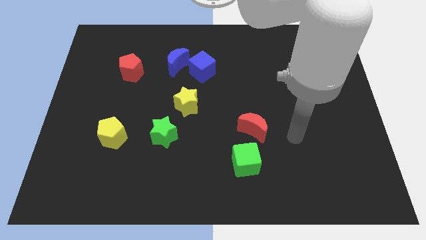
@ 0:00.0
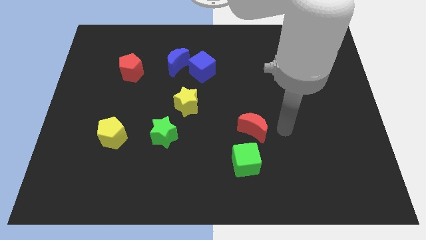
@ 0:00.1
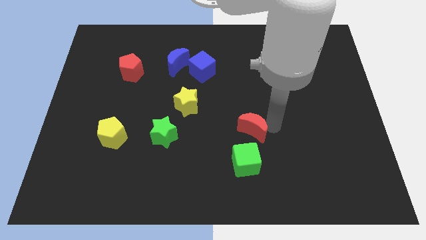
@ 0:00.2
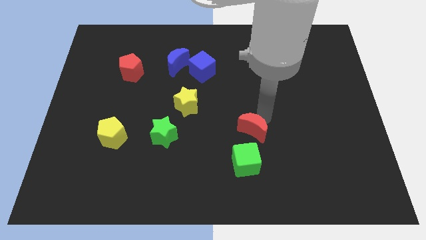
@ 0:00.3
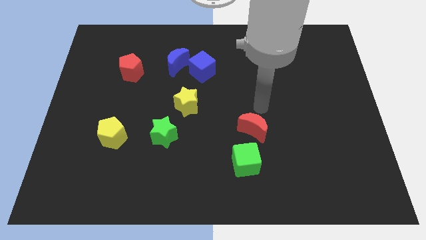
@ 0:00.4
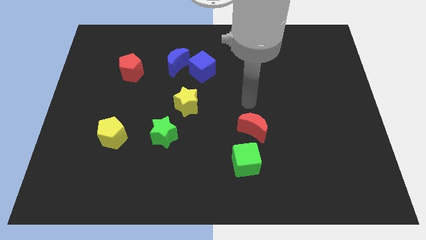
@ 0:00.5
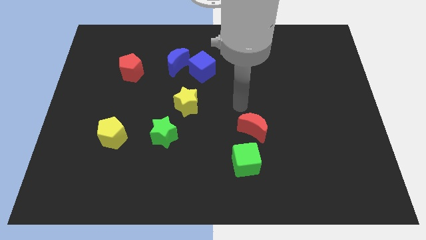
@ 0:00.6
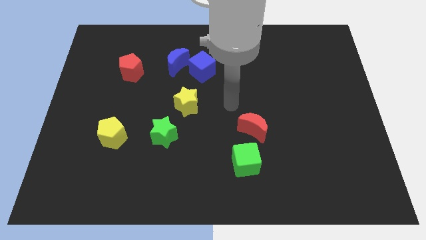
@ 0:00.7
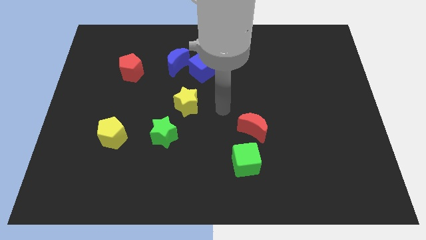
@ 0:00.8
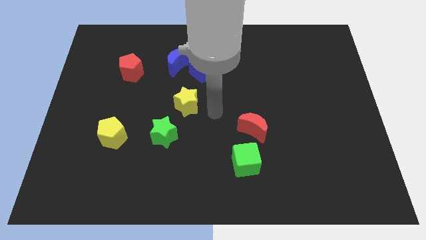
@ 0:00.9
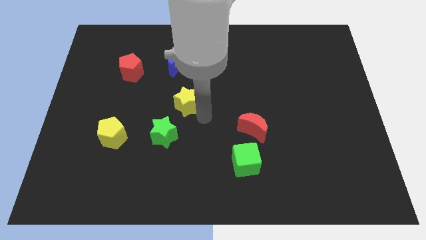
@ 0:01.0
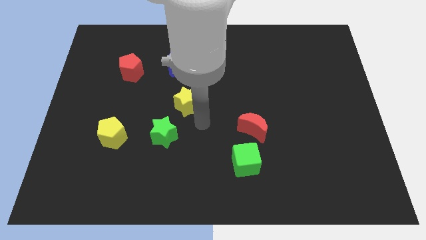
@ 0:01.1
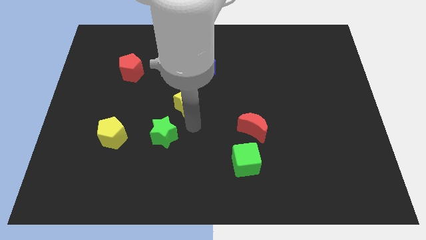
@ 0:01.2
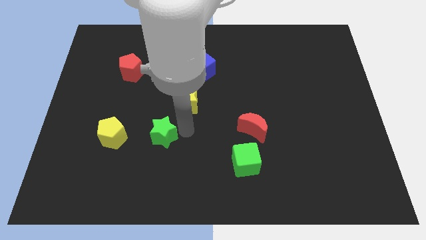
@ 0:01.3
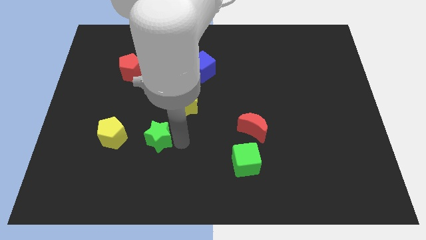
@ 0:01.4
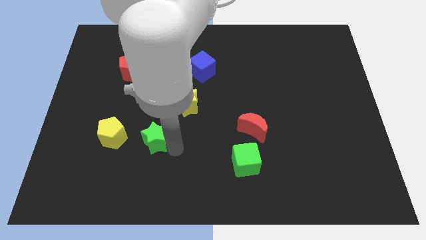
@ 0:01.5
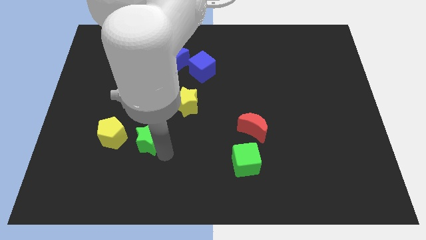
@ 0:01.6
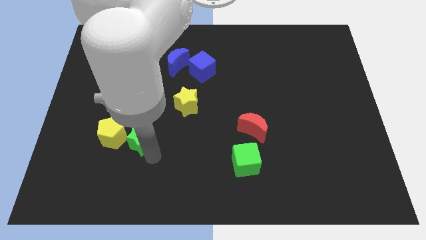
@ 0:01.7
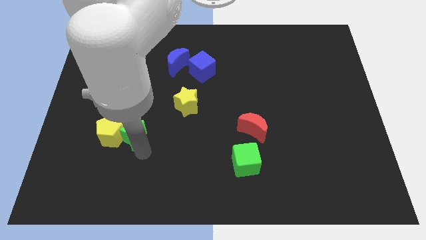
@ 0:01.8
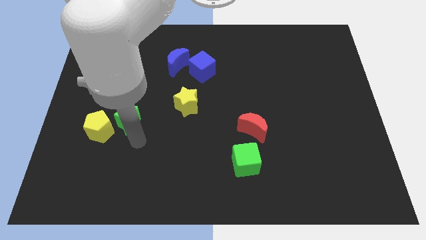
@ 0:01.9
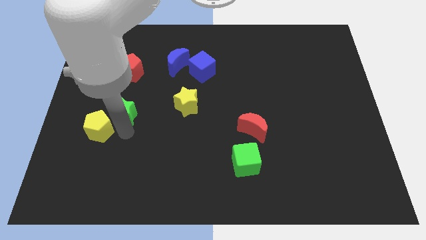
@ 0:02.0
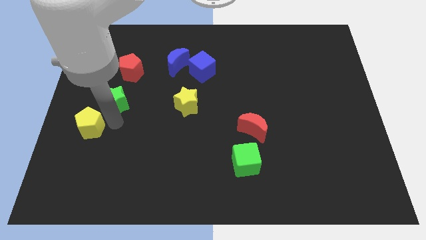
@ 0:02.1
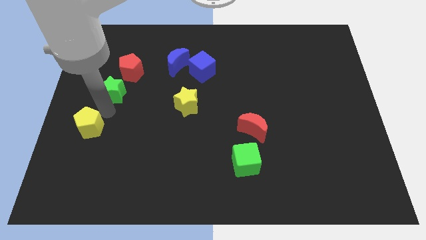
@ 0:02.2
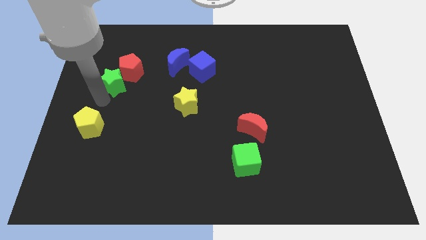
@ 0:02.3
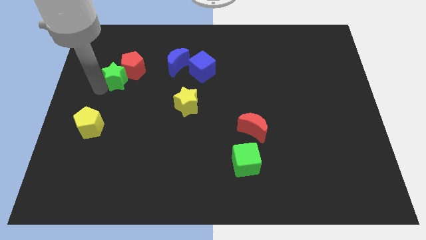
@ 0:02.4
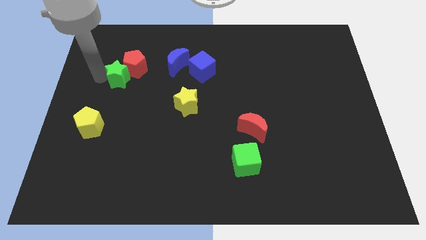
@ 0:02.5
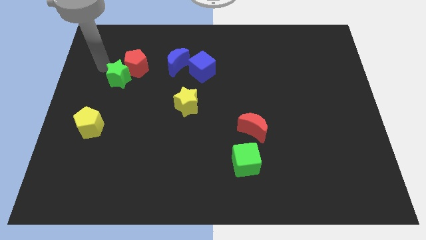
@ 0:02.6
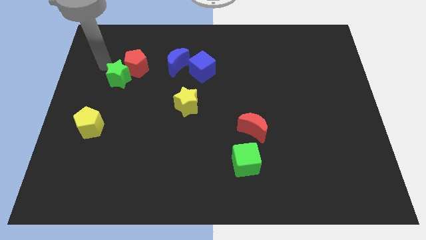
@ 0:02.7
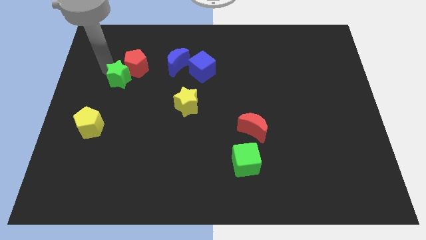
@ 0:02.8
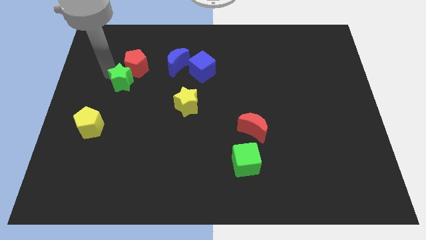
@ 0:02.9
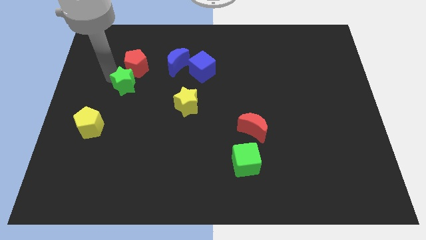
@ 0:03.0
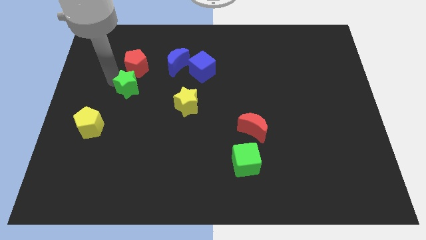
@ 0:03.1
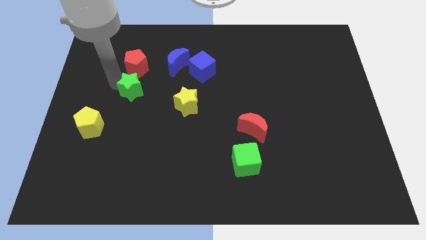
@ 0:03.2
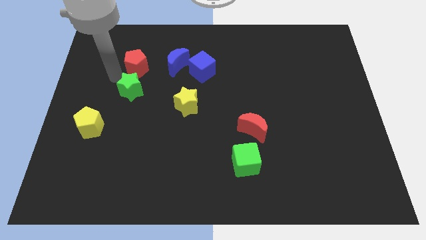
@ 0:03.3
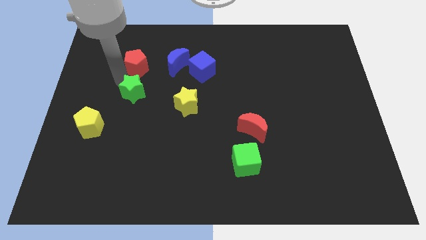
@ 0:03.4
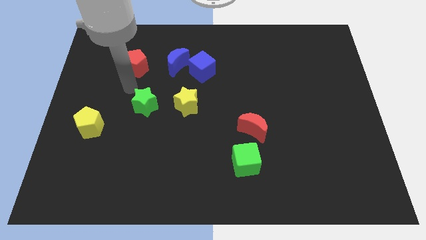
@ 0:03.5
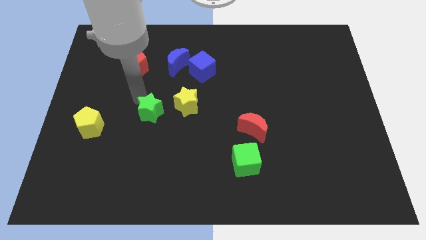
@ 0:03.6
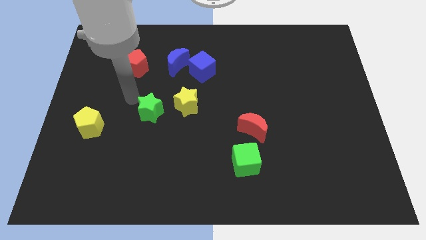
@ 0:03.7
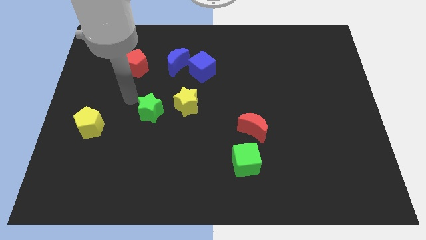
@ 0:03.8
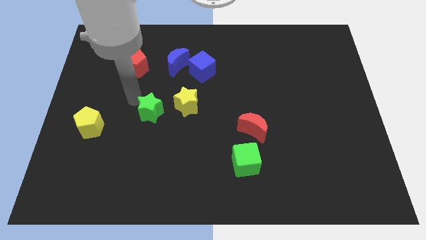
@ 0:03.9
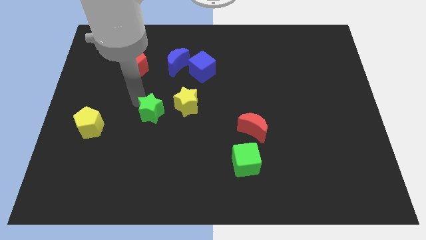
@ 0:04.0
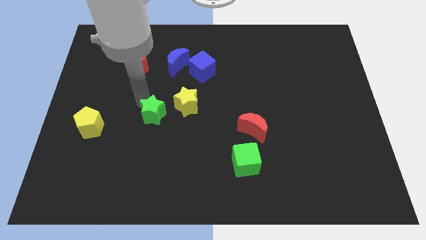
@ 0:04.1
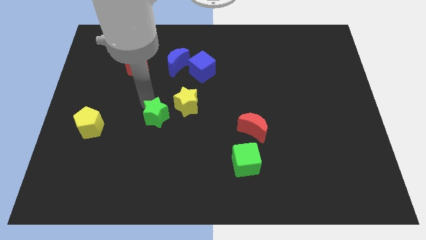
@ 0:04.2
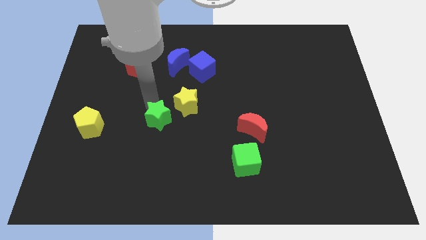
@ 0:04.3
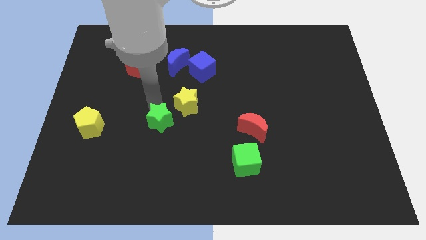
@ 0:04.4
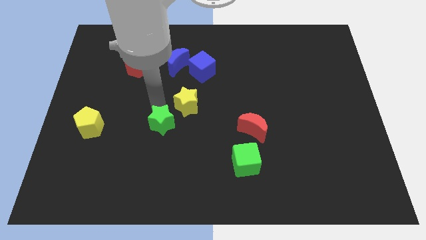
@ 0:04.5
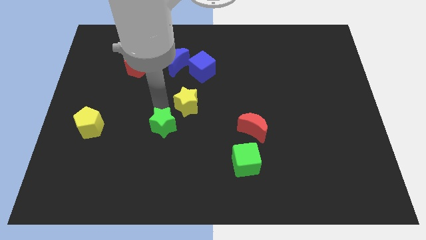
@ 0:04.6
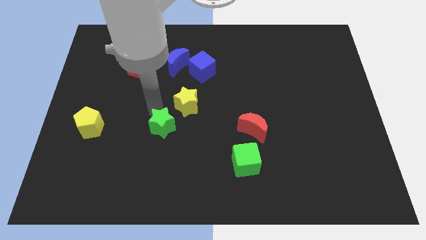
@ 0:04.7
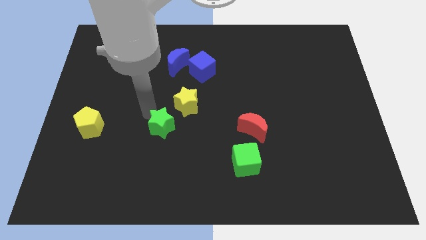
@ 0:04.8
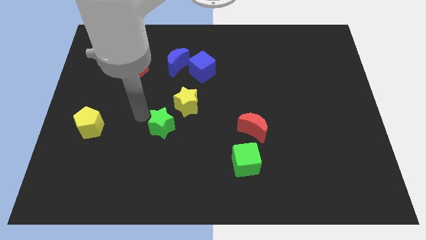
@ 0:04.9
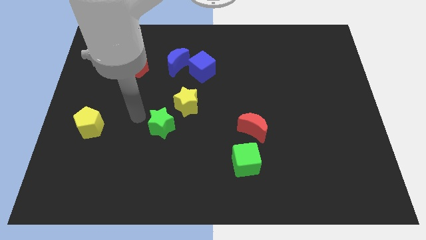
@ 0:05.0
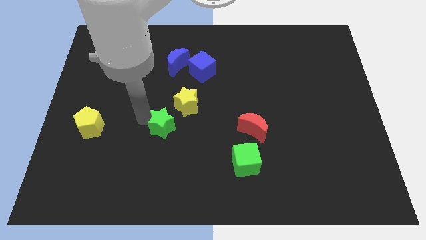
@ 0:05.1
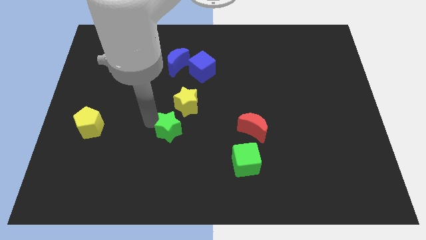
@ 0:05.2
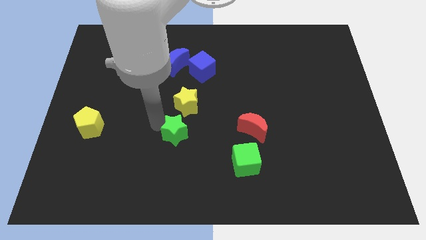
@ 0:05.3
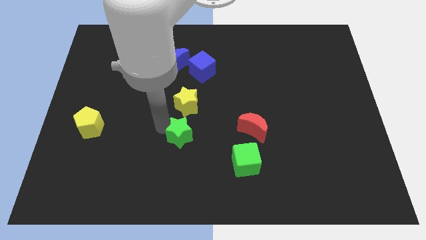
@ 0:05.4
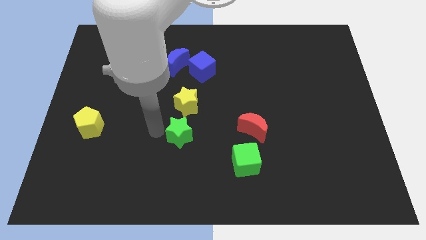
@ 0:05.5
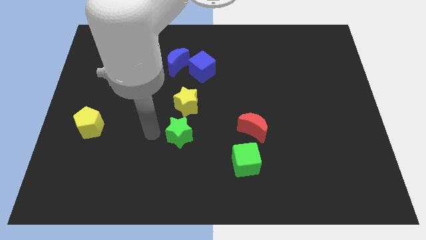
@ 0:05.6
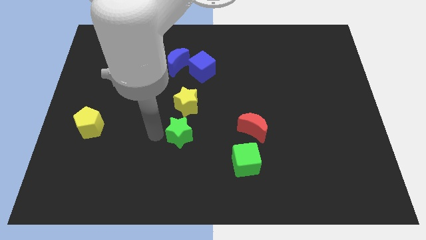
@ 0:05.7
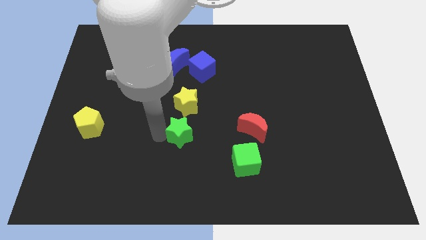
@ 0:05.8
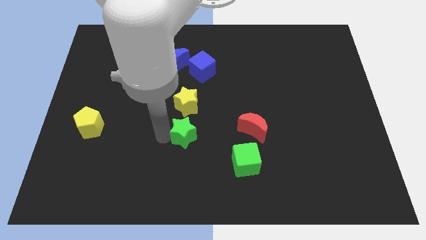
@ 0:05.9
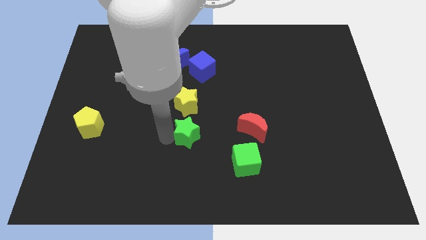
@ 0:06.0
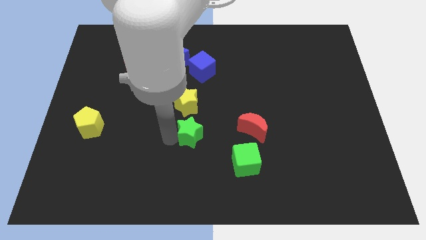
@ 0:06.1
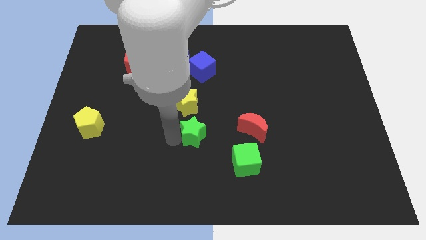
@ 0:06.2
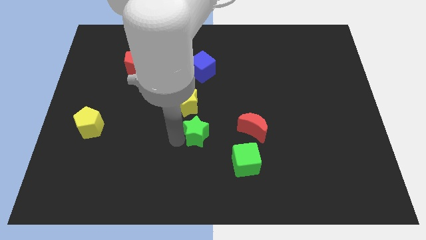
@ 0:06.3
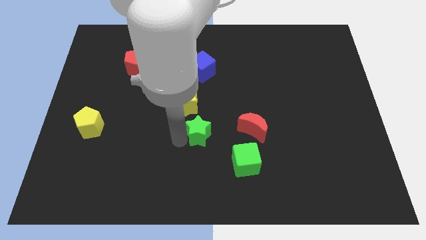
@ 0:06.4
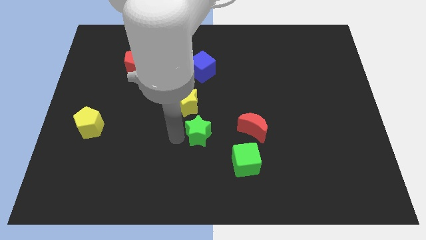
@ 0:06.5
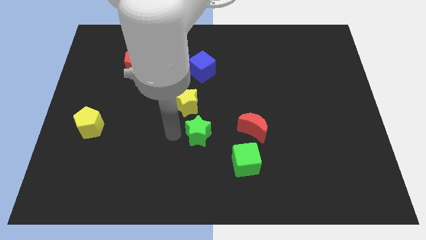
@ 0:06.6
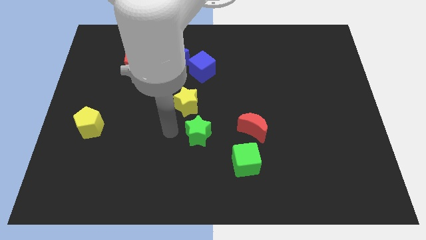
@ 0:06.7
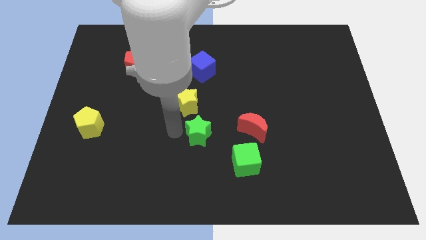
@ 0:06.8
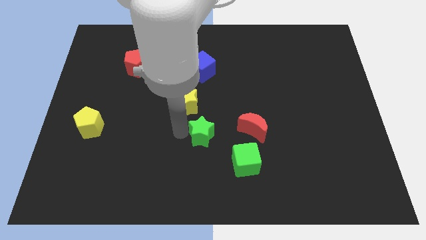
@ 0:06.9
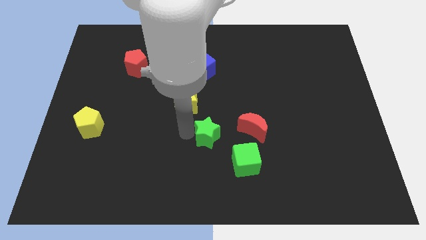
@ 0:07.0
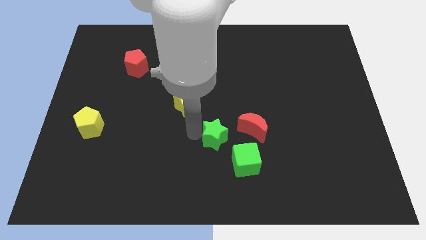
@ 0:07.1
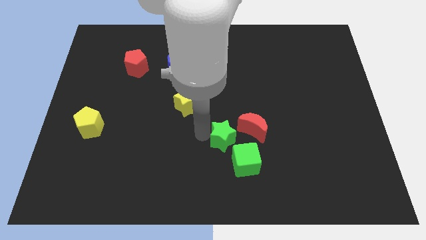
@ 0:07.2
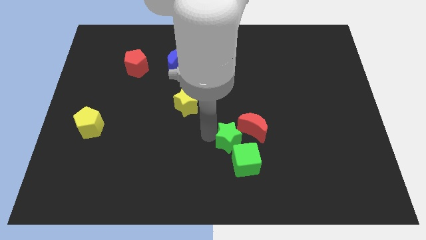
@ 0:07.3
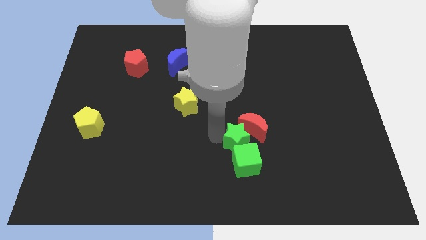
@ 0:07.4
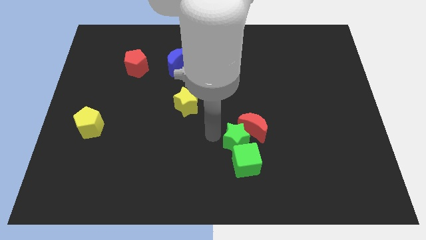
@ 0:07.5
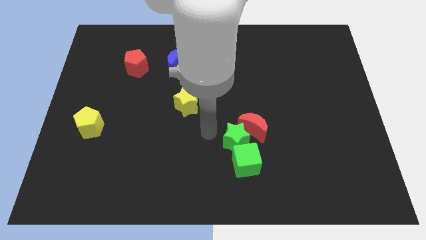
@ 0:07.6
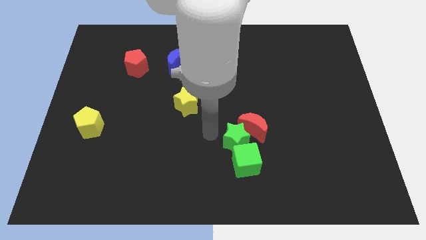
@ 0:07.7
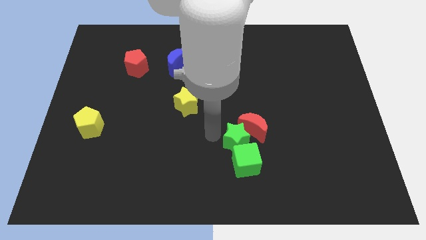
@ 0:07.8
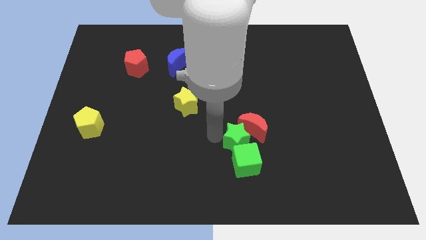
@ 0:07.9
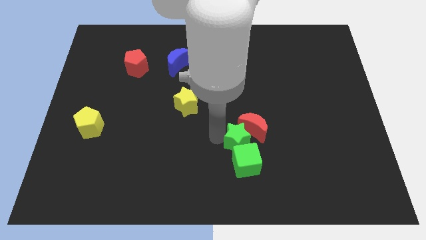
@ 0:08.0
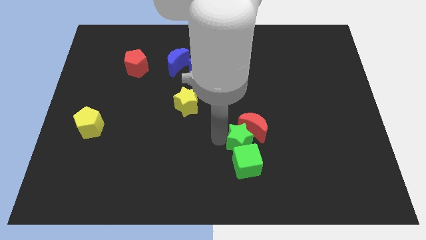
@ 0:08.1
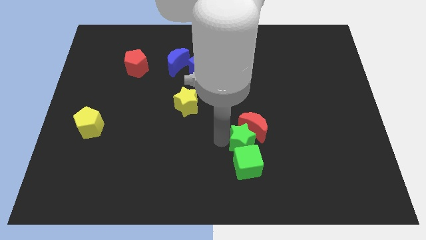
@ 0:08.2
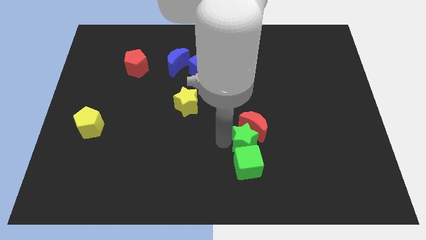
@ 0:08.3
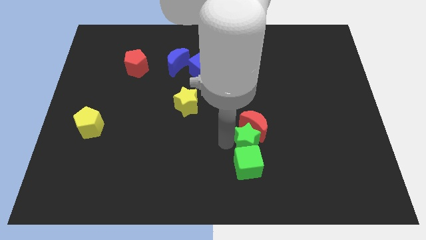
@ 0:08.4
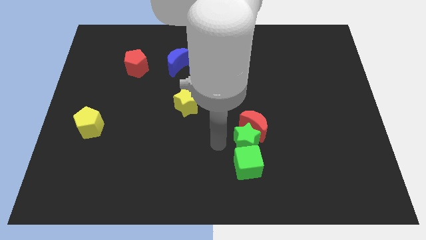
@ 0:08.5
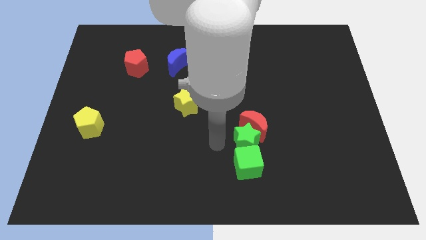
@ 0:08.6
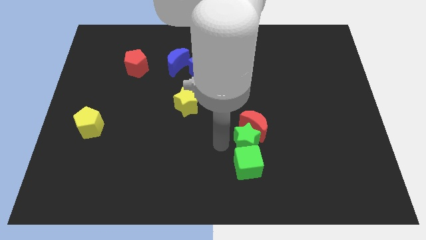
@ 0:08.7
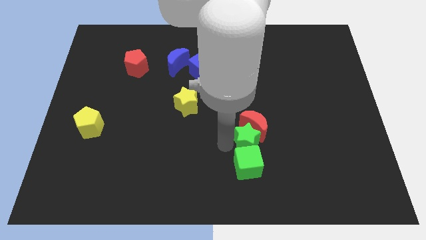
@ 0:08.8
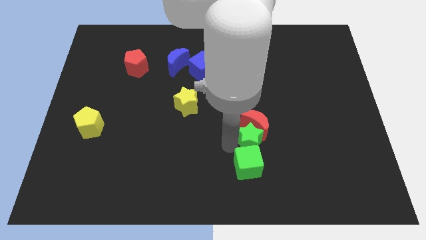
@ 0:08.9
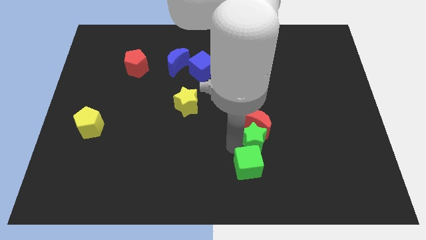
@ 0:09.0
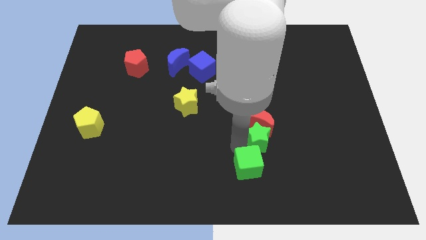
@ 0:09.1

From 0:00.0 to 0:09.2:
push the green star to the right
